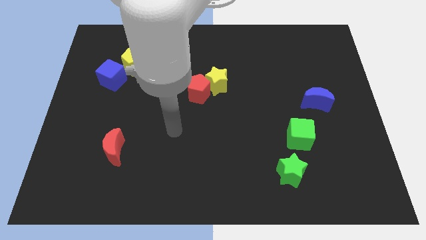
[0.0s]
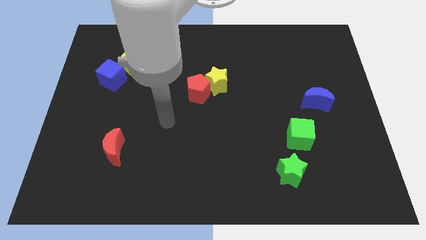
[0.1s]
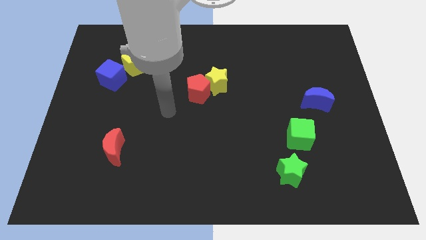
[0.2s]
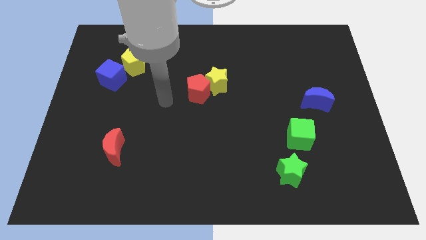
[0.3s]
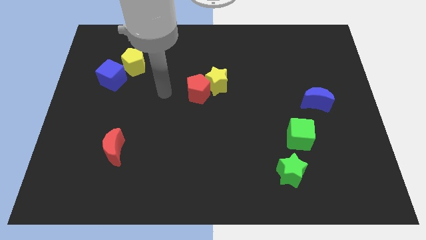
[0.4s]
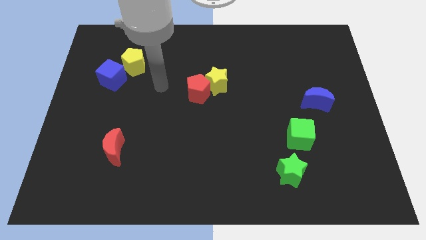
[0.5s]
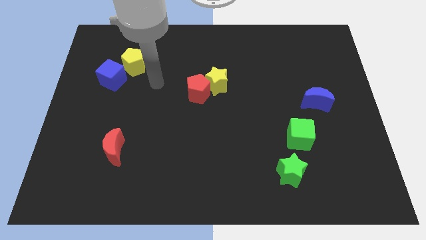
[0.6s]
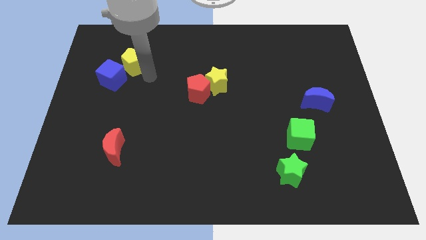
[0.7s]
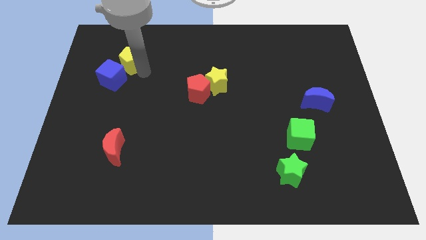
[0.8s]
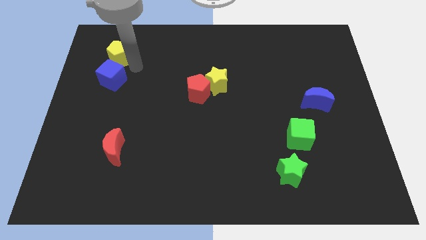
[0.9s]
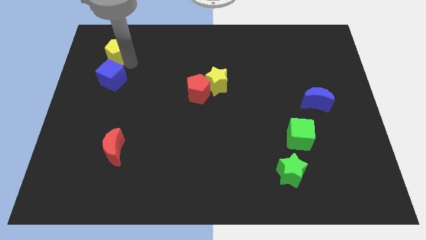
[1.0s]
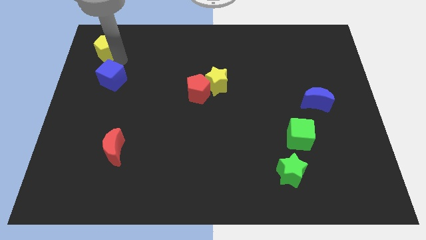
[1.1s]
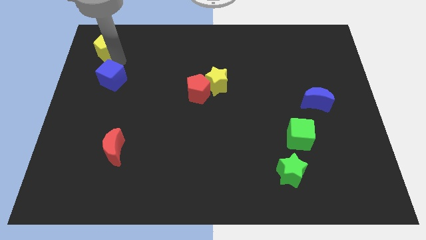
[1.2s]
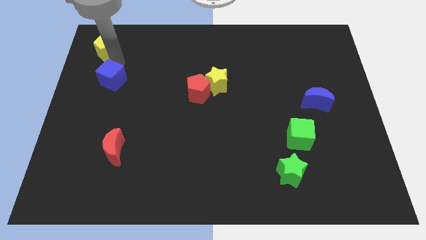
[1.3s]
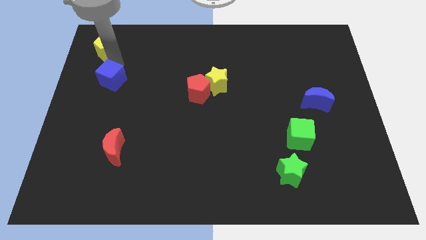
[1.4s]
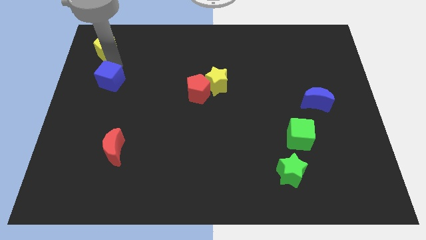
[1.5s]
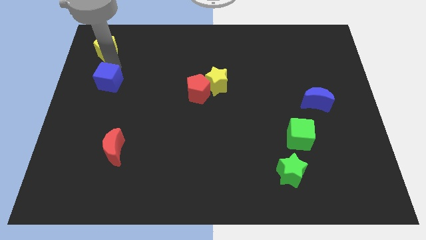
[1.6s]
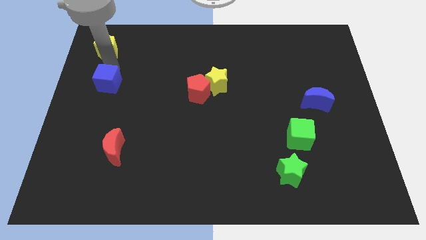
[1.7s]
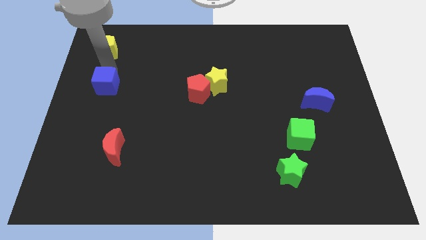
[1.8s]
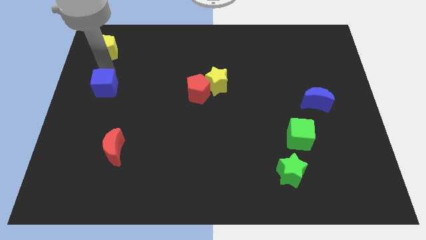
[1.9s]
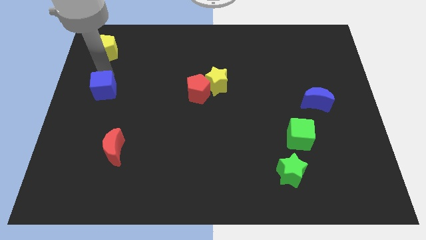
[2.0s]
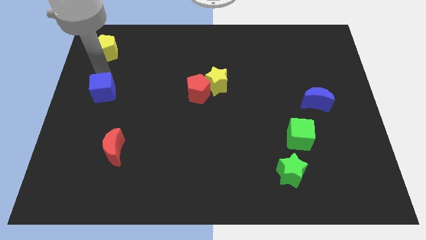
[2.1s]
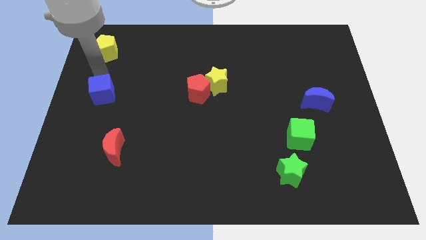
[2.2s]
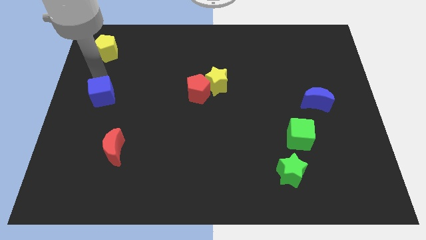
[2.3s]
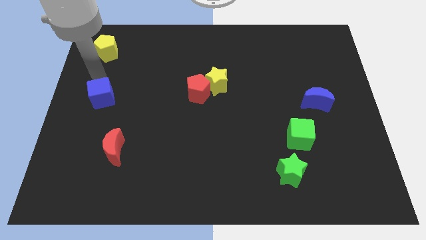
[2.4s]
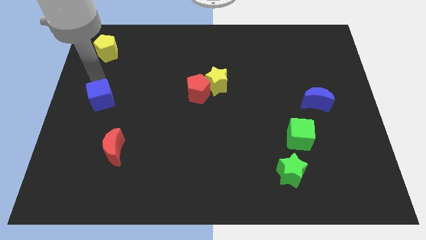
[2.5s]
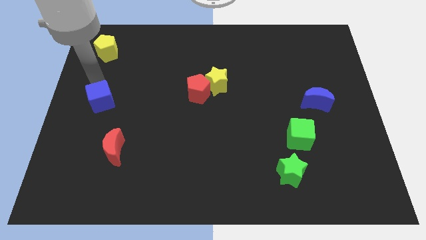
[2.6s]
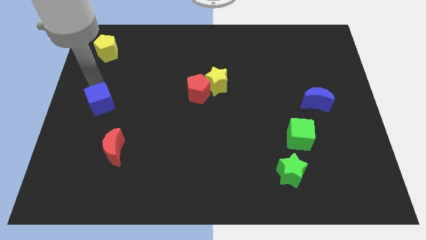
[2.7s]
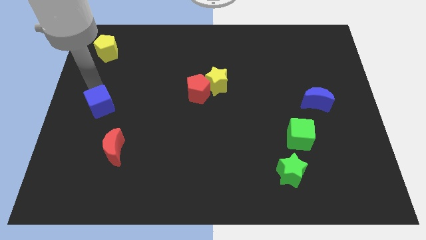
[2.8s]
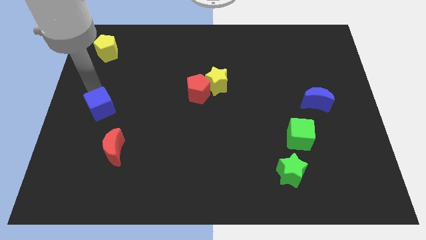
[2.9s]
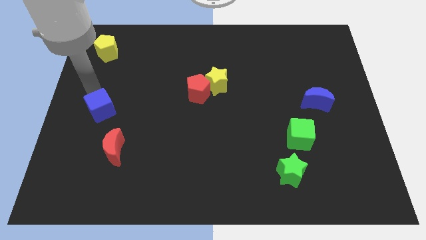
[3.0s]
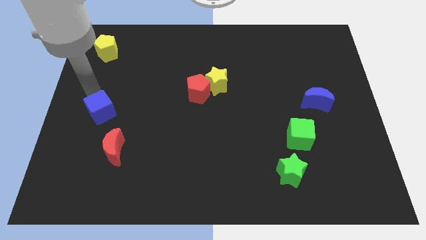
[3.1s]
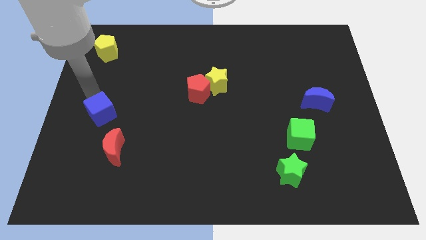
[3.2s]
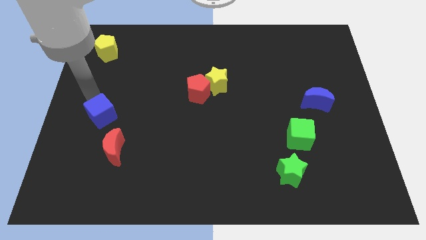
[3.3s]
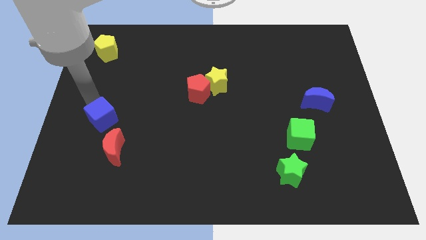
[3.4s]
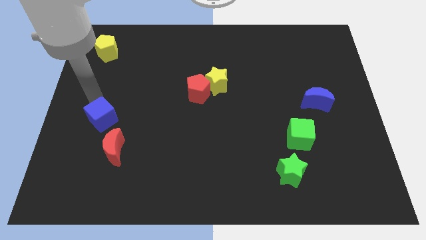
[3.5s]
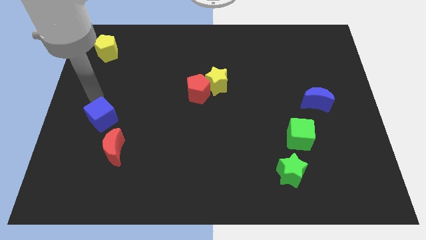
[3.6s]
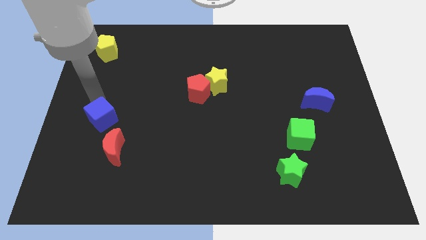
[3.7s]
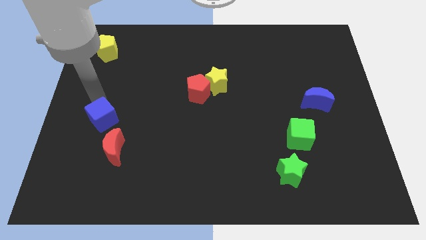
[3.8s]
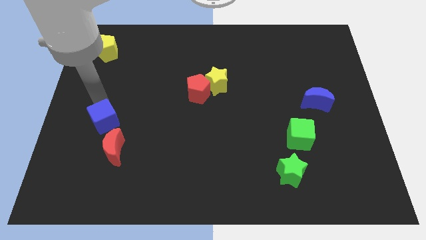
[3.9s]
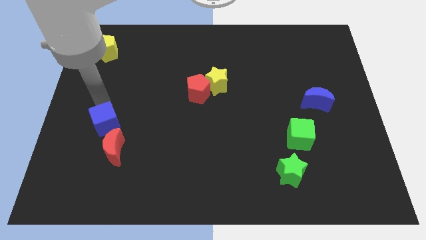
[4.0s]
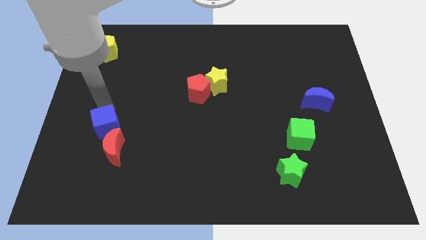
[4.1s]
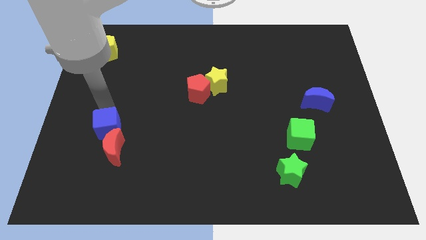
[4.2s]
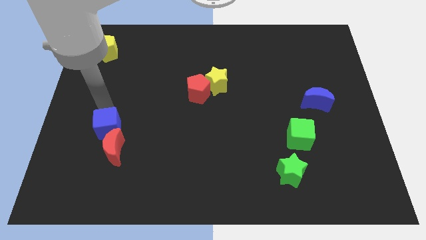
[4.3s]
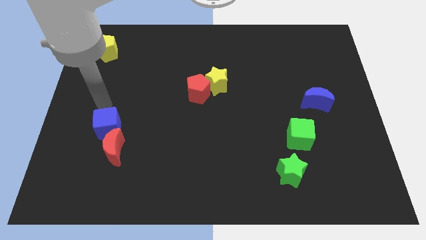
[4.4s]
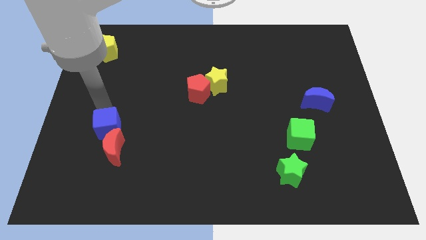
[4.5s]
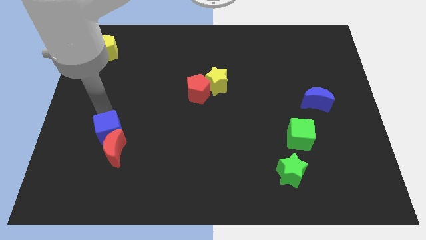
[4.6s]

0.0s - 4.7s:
slide the blue cube towards the red moon

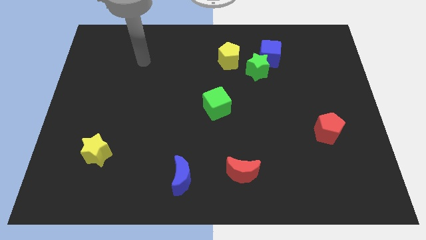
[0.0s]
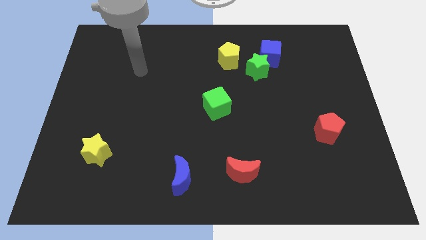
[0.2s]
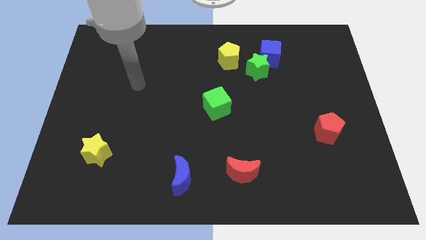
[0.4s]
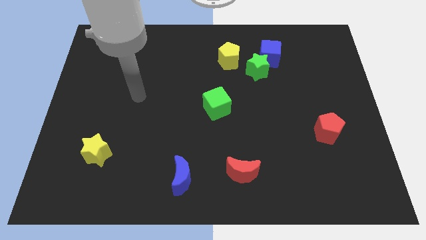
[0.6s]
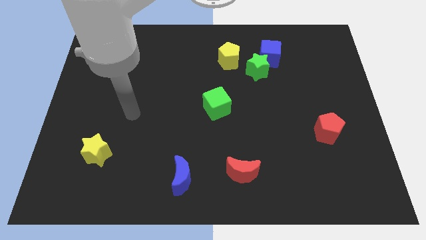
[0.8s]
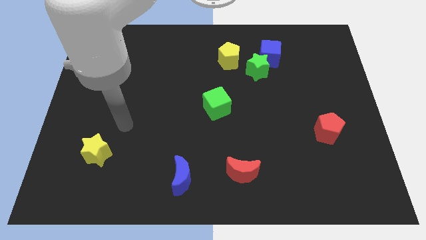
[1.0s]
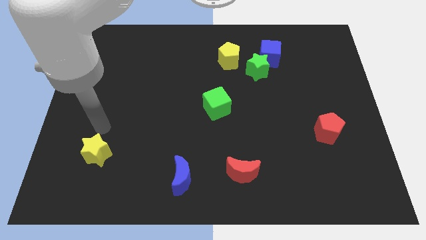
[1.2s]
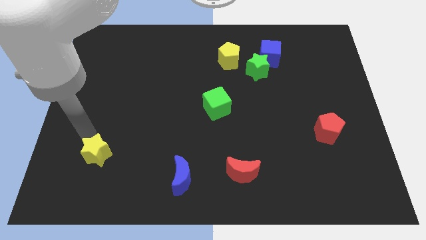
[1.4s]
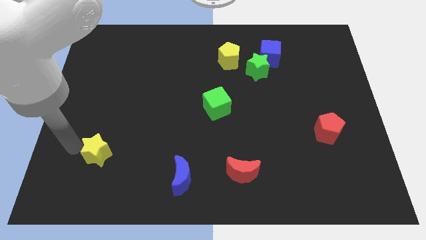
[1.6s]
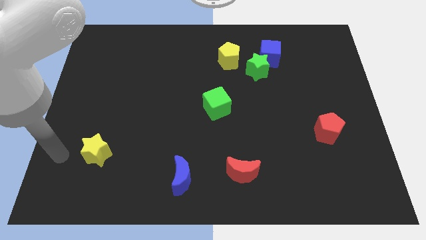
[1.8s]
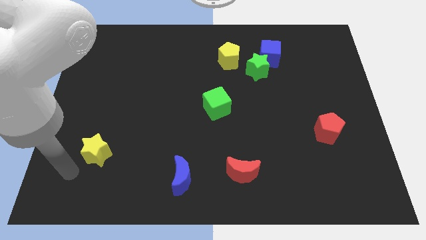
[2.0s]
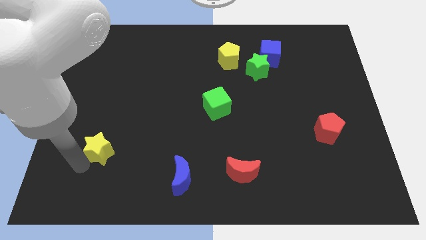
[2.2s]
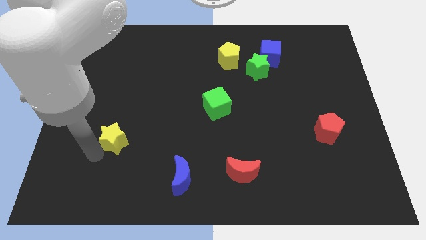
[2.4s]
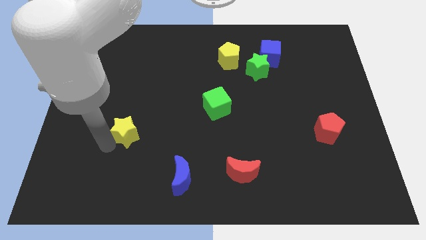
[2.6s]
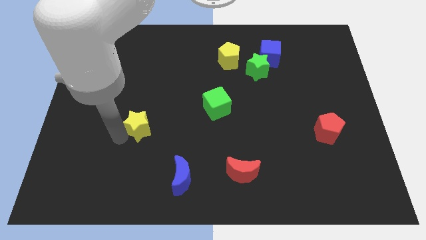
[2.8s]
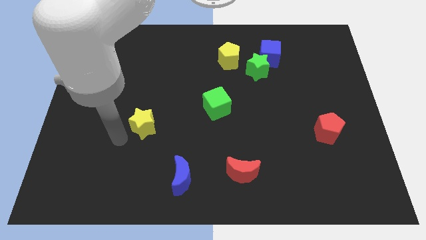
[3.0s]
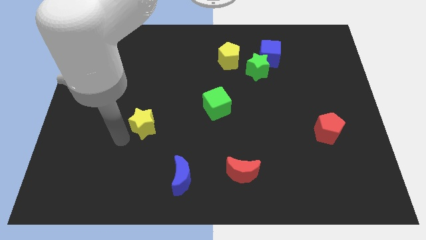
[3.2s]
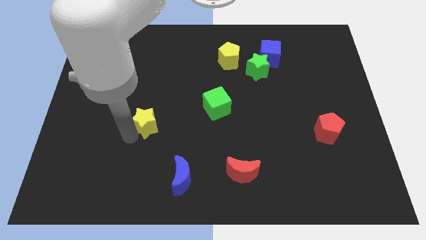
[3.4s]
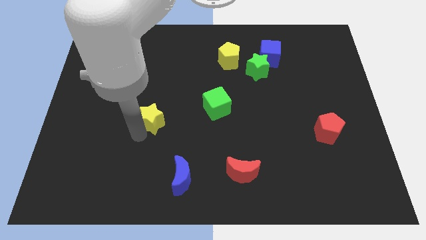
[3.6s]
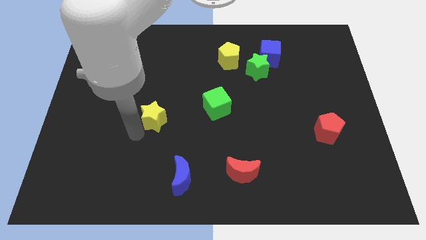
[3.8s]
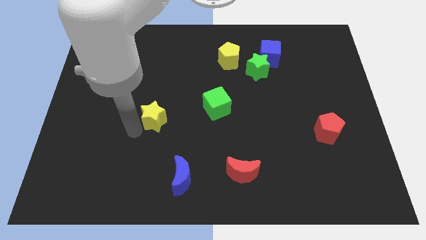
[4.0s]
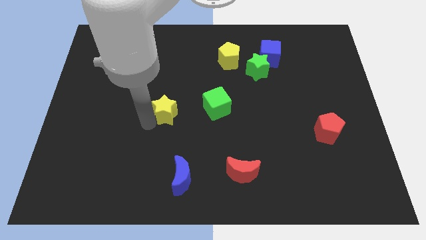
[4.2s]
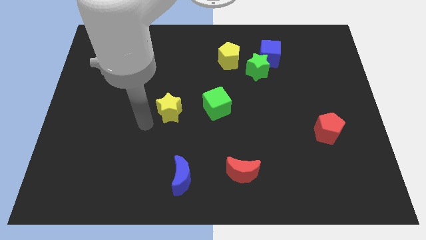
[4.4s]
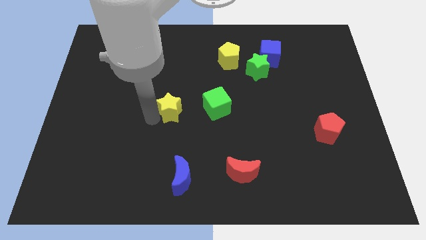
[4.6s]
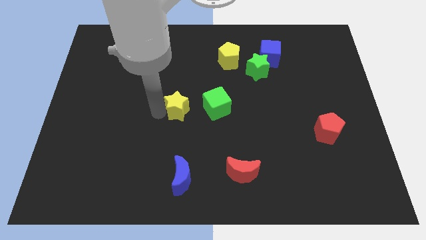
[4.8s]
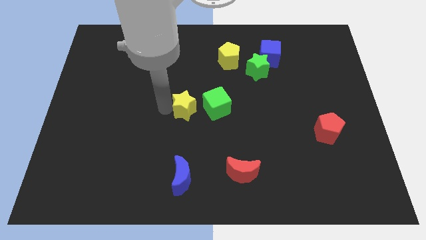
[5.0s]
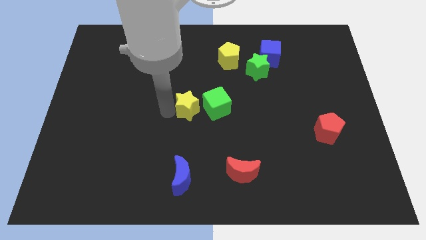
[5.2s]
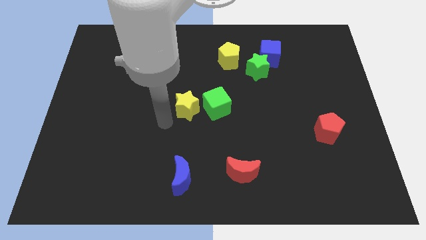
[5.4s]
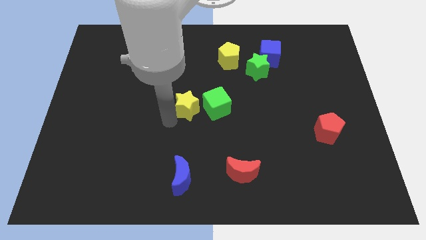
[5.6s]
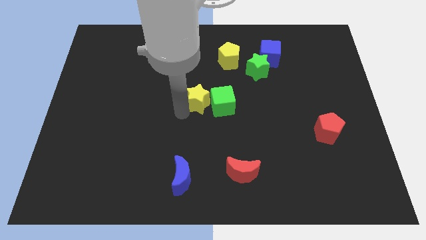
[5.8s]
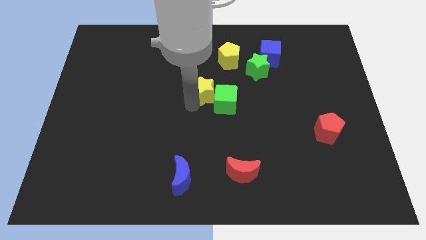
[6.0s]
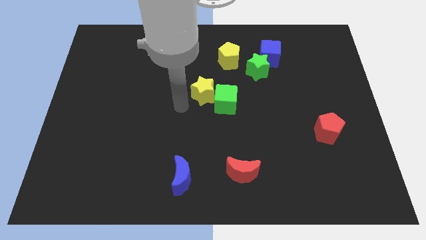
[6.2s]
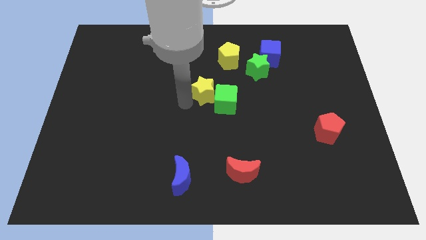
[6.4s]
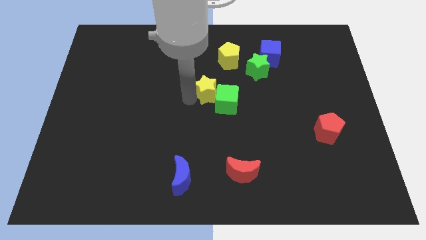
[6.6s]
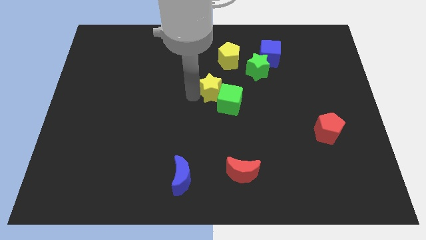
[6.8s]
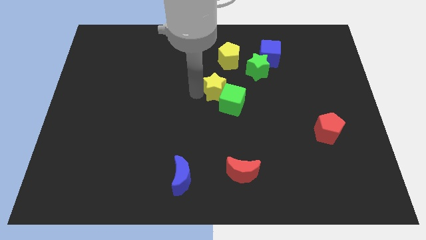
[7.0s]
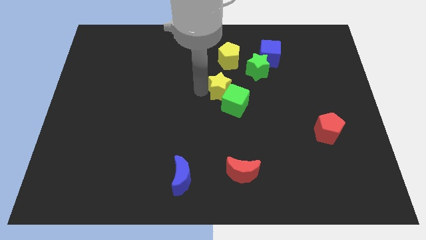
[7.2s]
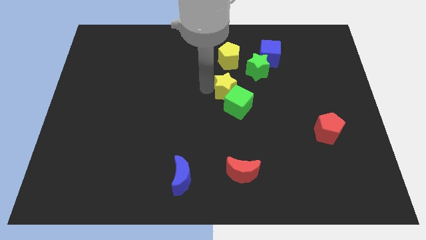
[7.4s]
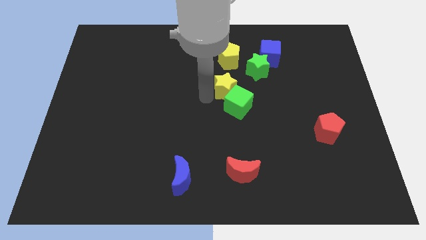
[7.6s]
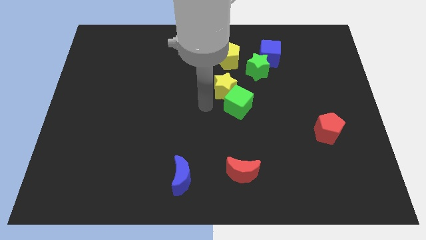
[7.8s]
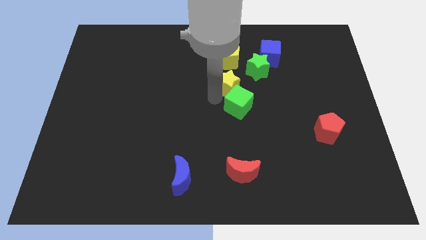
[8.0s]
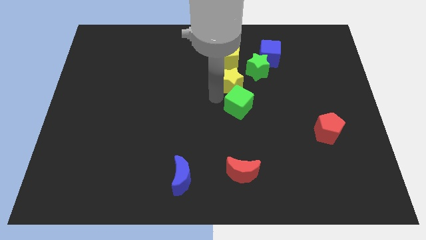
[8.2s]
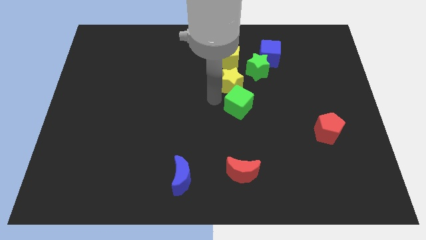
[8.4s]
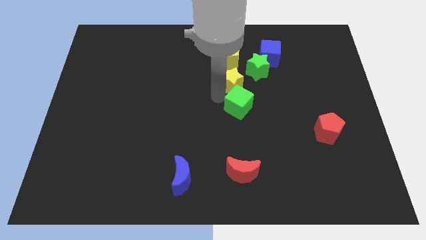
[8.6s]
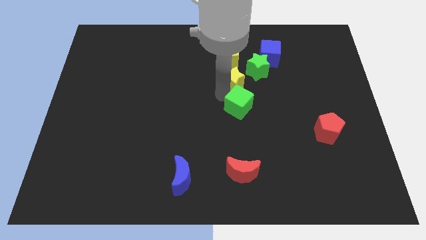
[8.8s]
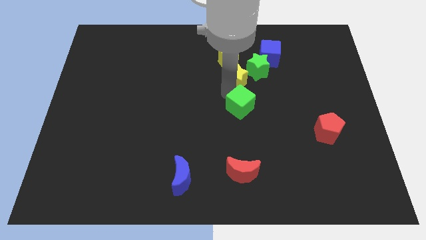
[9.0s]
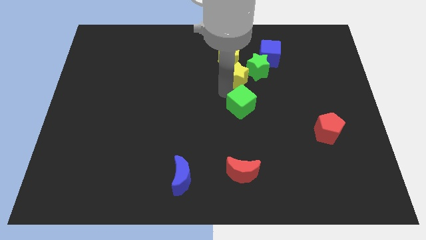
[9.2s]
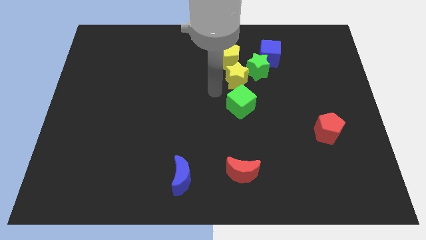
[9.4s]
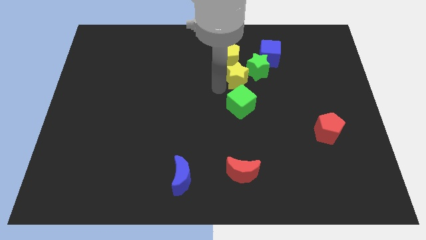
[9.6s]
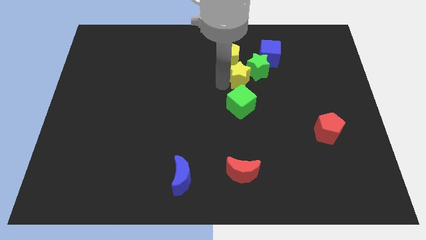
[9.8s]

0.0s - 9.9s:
move the yellow star towards the green star
